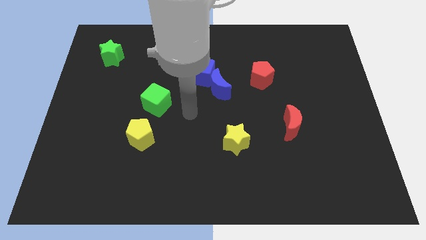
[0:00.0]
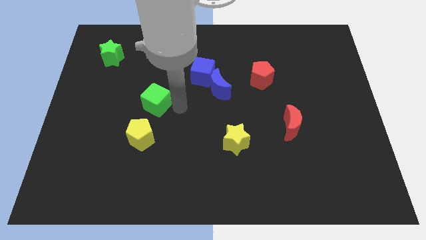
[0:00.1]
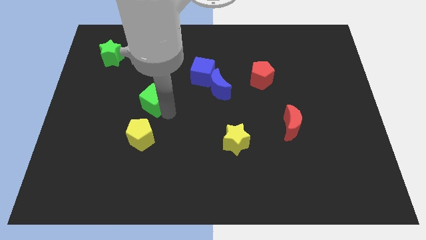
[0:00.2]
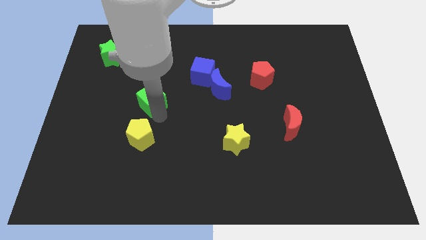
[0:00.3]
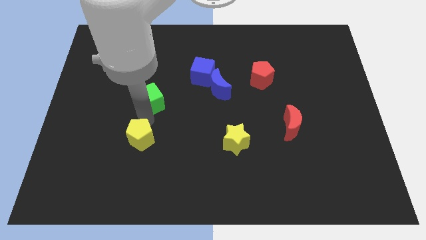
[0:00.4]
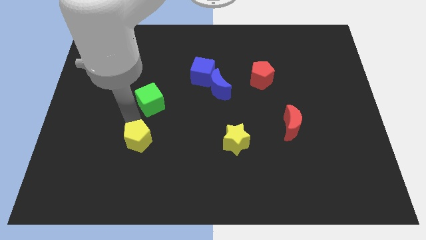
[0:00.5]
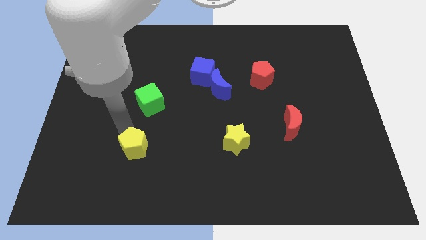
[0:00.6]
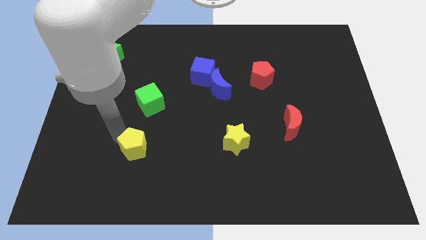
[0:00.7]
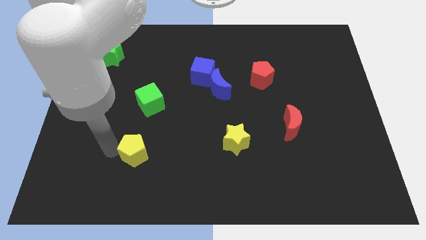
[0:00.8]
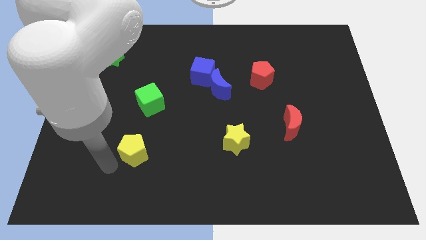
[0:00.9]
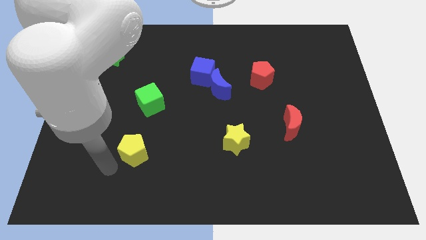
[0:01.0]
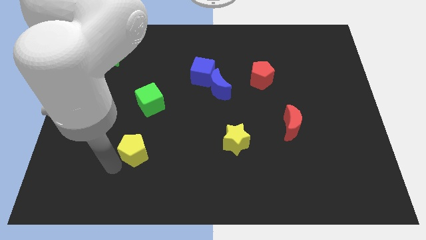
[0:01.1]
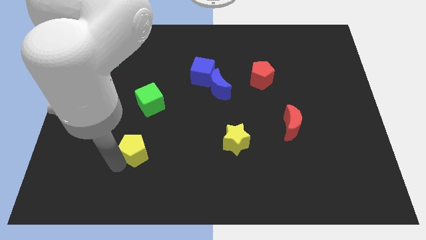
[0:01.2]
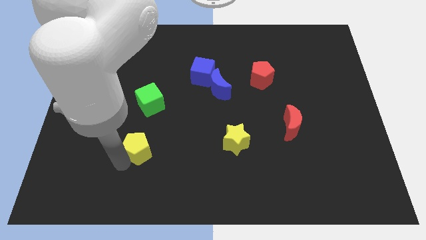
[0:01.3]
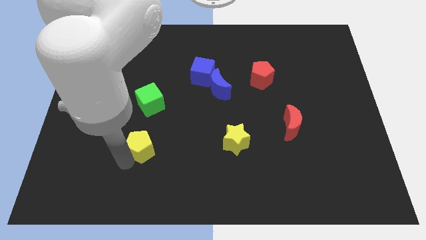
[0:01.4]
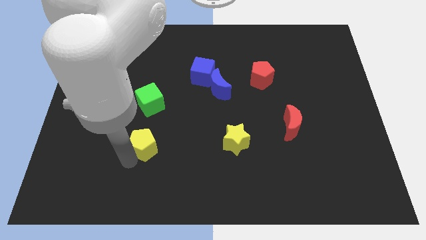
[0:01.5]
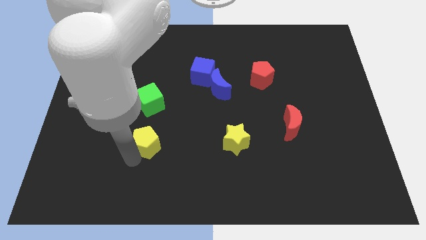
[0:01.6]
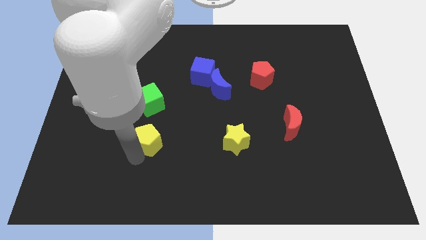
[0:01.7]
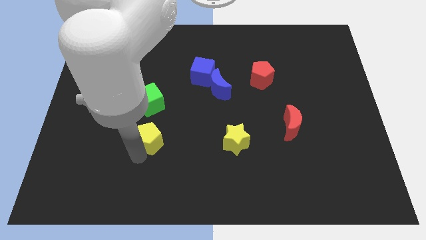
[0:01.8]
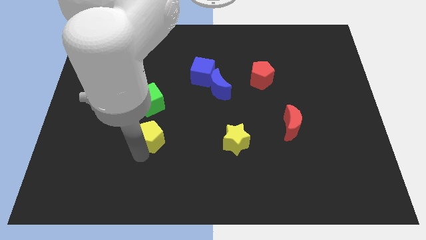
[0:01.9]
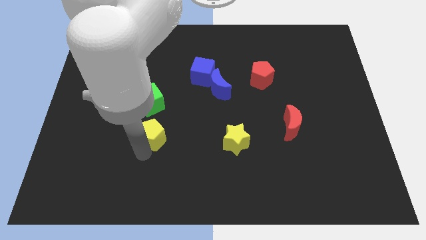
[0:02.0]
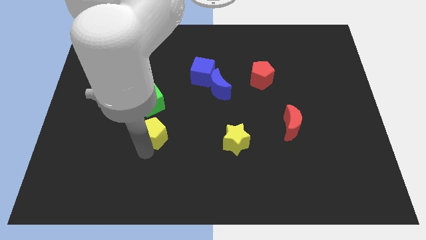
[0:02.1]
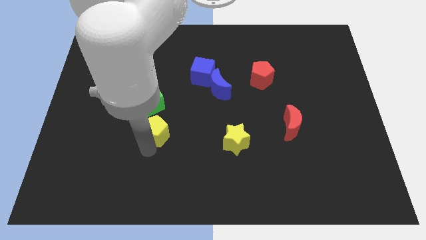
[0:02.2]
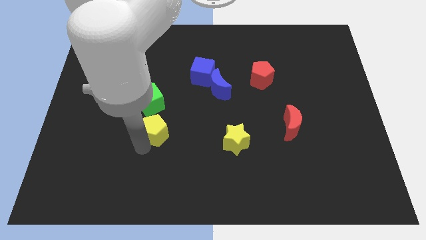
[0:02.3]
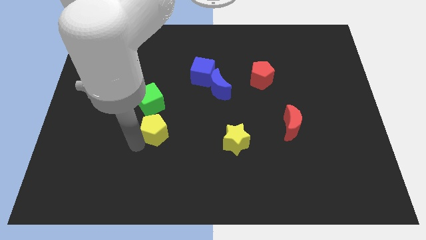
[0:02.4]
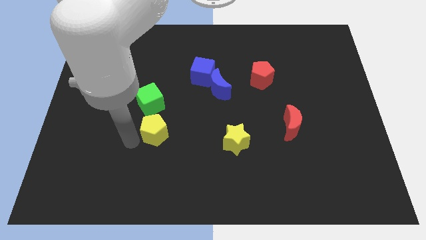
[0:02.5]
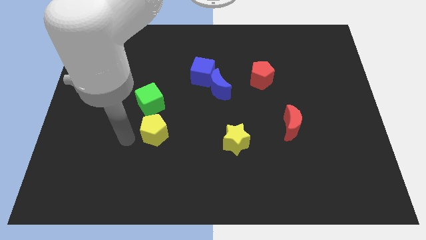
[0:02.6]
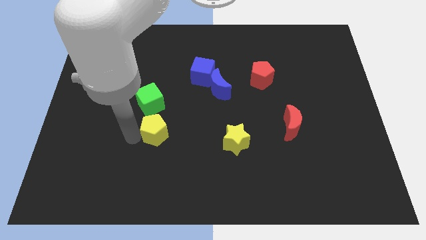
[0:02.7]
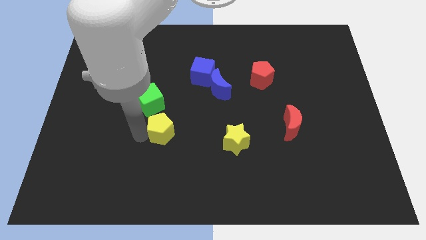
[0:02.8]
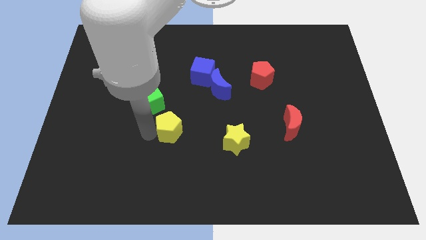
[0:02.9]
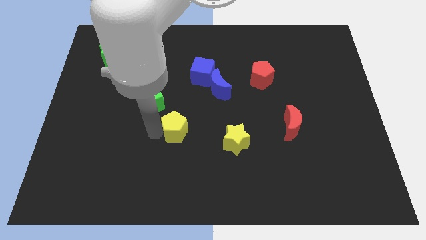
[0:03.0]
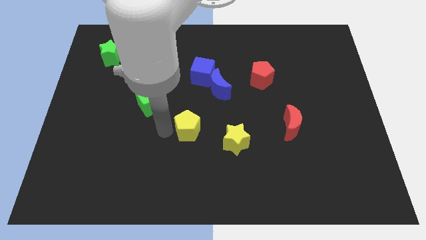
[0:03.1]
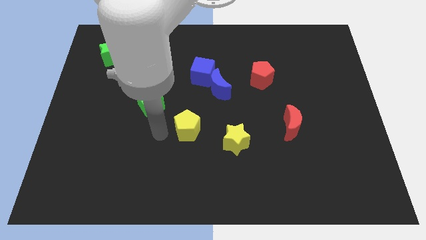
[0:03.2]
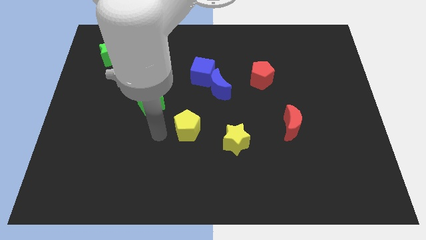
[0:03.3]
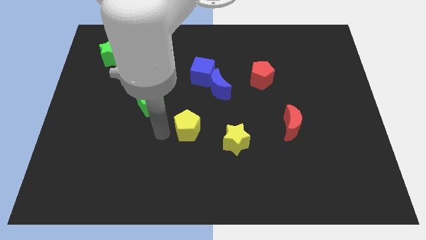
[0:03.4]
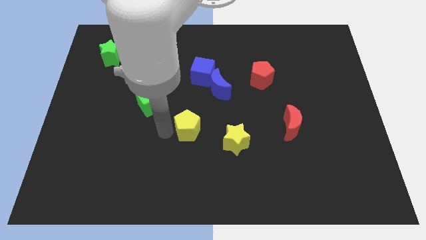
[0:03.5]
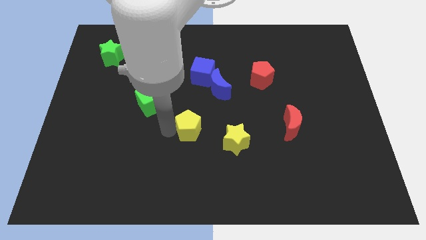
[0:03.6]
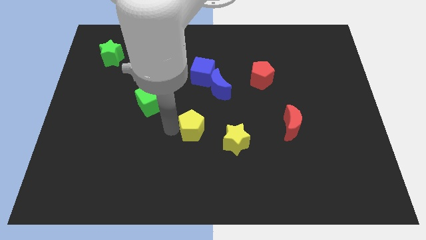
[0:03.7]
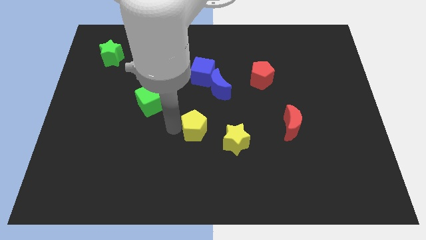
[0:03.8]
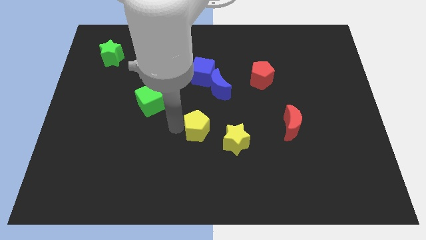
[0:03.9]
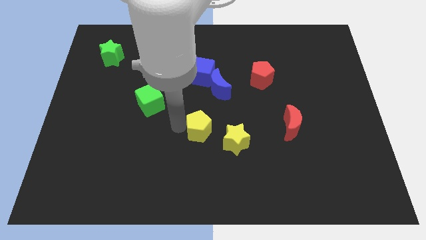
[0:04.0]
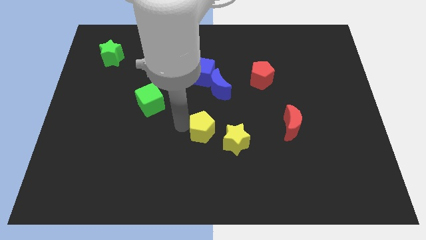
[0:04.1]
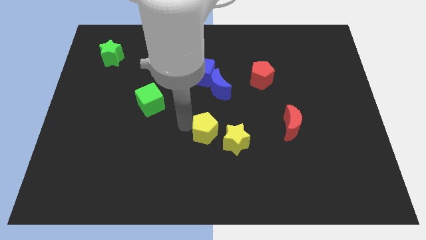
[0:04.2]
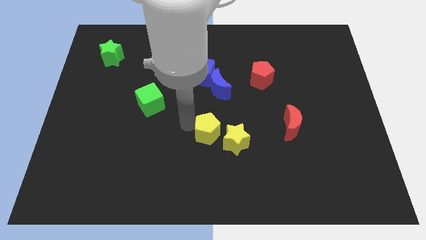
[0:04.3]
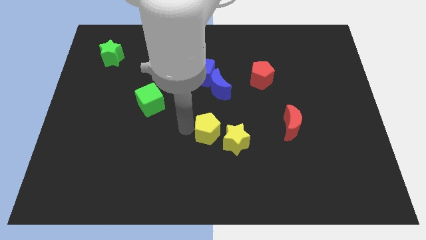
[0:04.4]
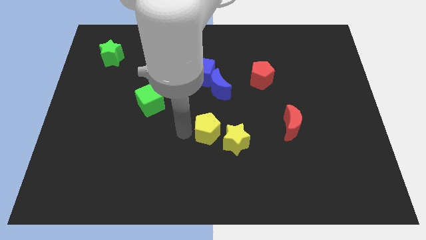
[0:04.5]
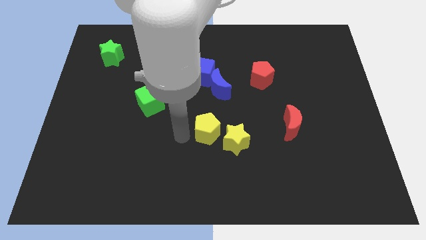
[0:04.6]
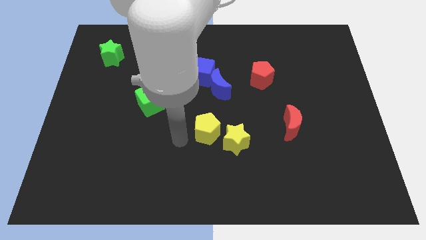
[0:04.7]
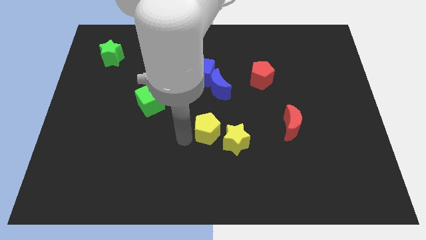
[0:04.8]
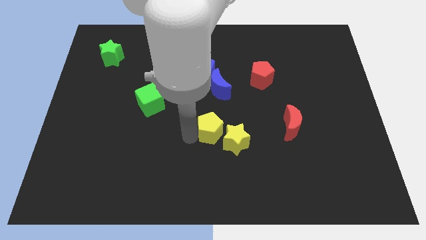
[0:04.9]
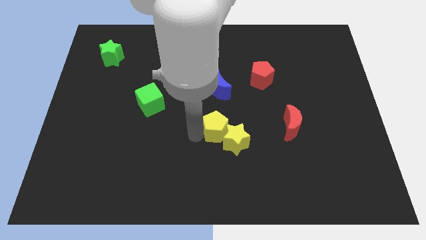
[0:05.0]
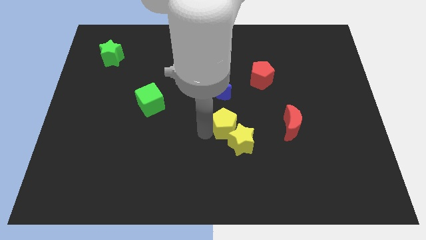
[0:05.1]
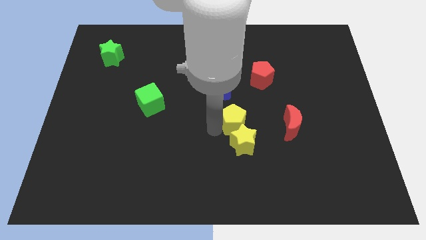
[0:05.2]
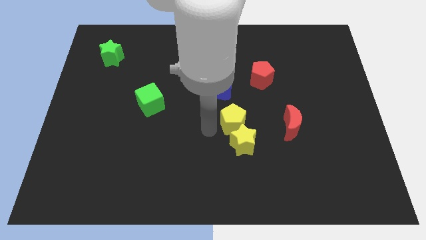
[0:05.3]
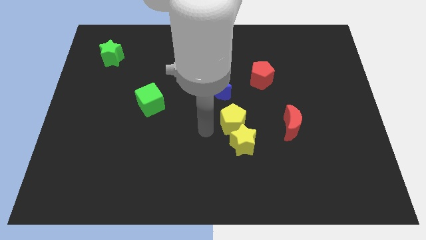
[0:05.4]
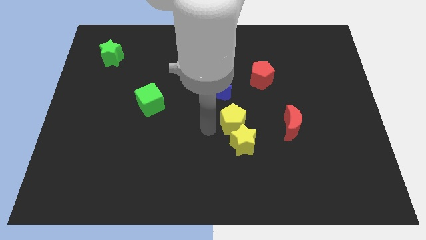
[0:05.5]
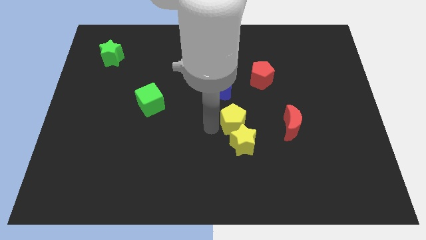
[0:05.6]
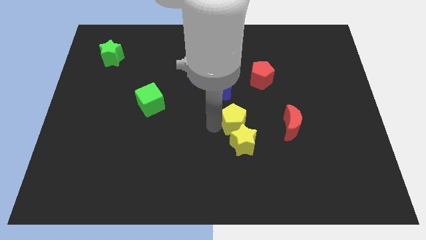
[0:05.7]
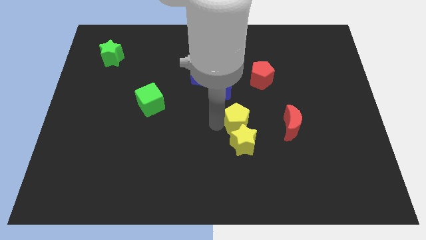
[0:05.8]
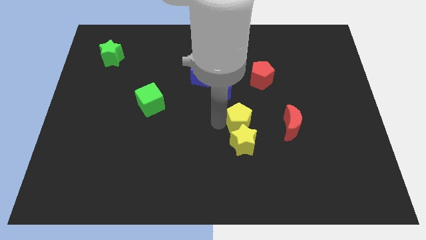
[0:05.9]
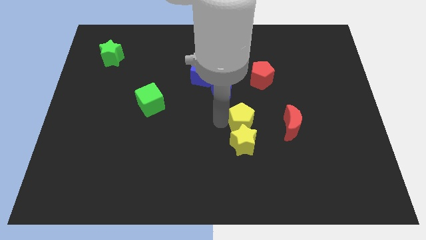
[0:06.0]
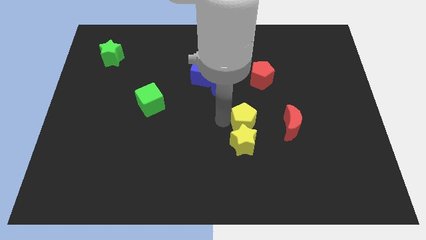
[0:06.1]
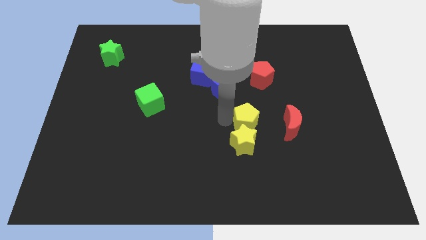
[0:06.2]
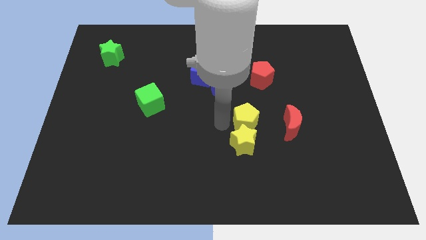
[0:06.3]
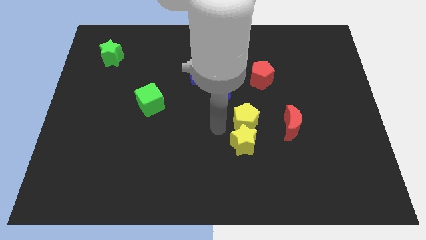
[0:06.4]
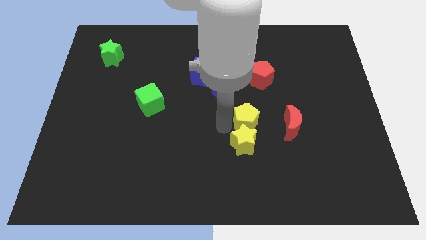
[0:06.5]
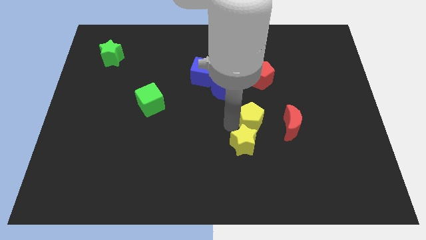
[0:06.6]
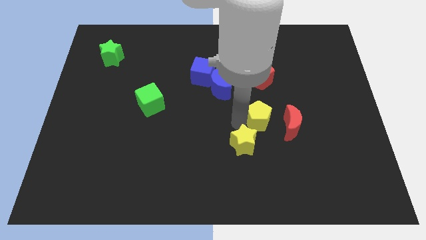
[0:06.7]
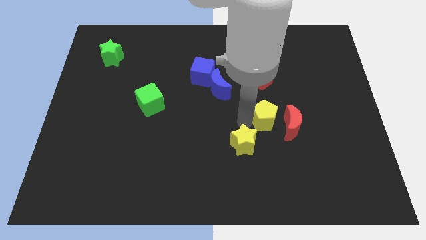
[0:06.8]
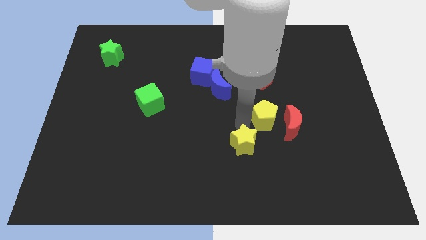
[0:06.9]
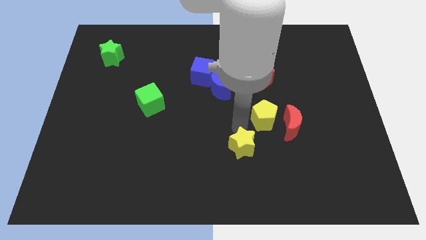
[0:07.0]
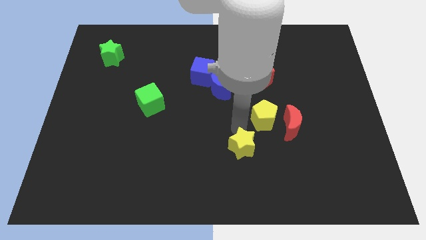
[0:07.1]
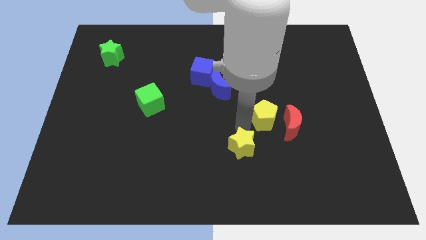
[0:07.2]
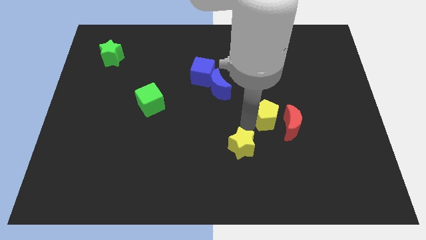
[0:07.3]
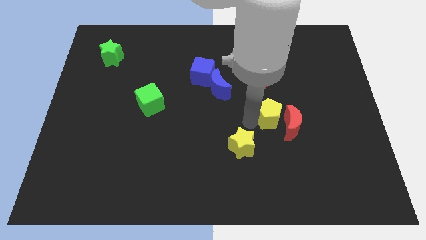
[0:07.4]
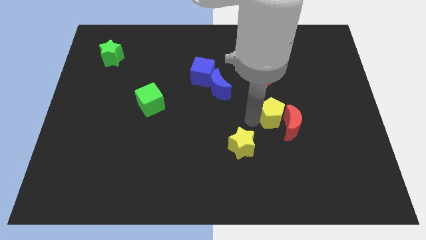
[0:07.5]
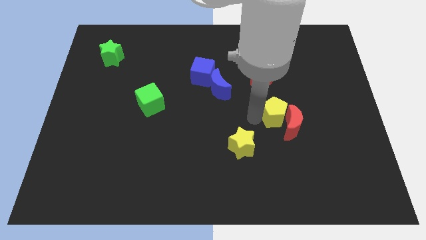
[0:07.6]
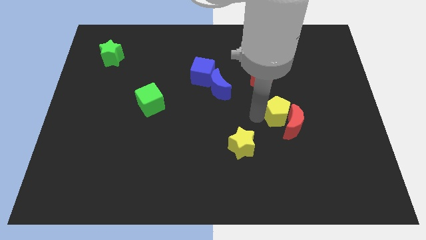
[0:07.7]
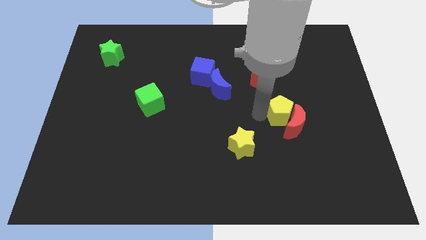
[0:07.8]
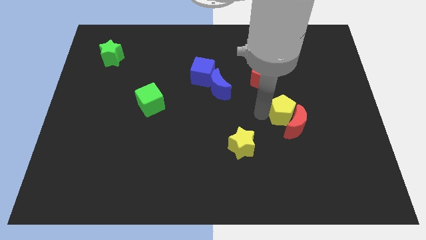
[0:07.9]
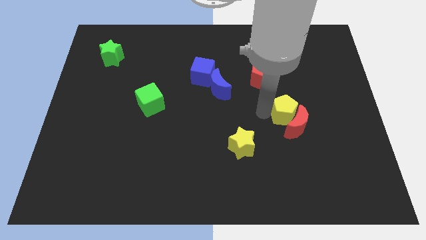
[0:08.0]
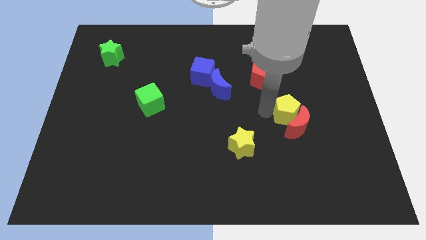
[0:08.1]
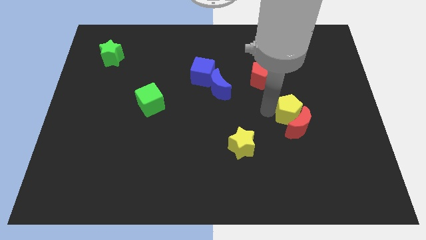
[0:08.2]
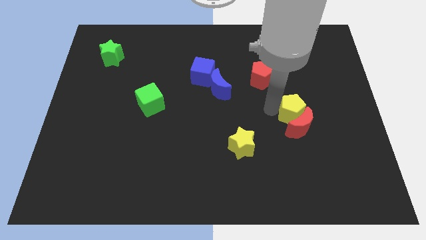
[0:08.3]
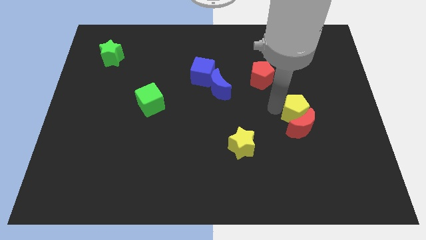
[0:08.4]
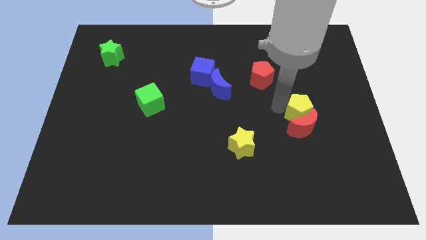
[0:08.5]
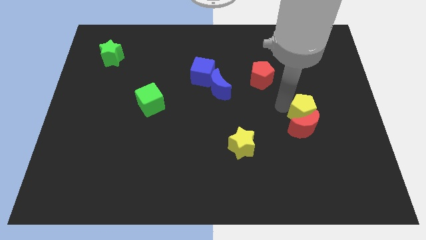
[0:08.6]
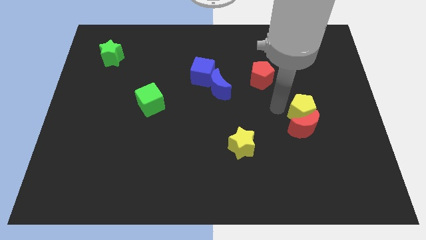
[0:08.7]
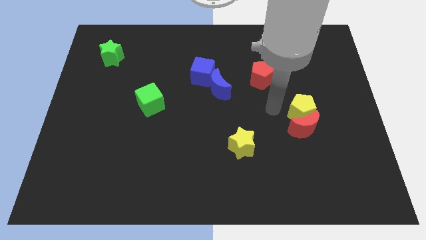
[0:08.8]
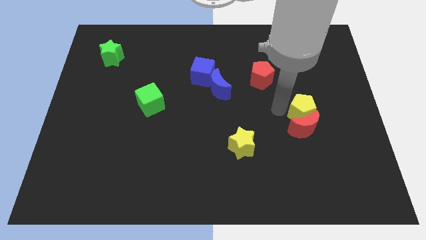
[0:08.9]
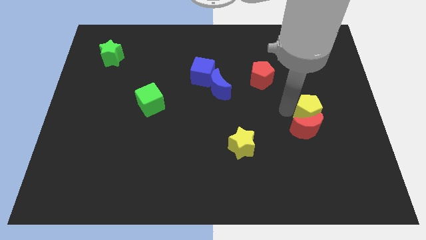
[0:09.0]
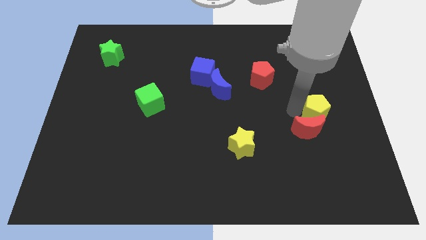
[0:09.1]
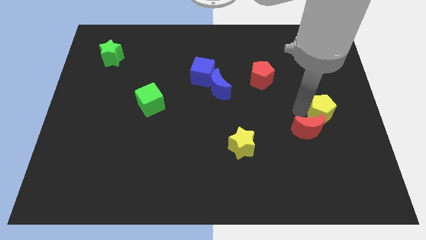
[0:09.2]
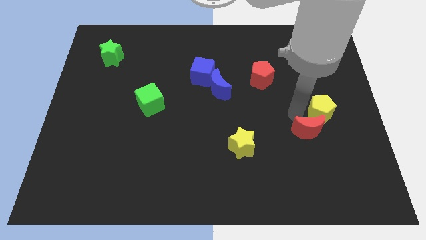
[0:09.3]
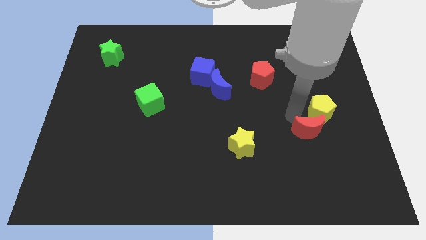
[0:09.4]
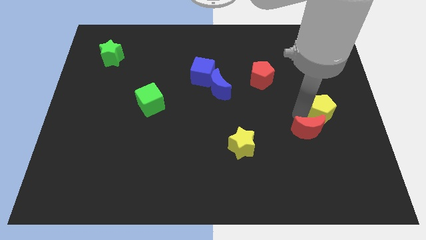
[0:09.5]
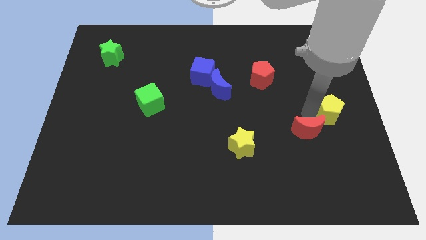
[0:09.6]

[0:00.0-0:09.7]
move the yellow pentagon to the right side
